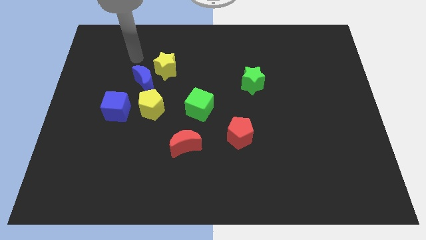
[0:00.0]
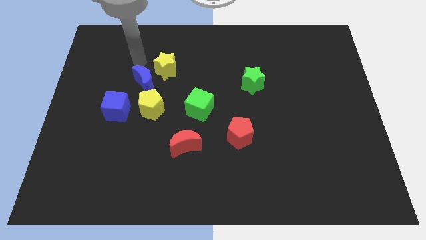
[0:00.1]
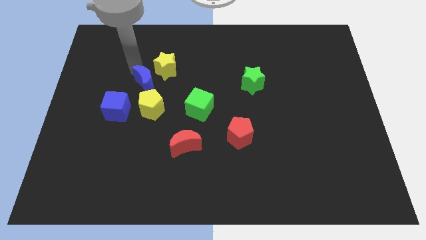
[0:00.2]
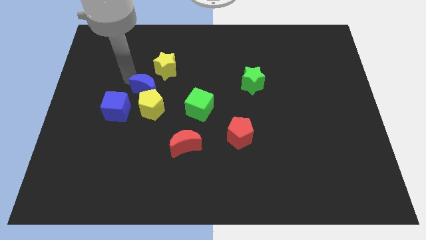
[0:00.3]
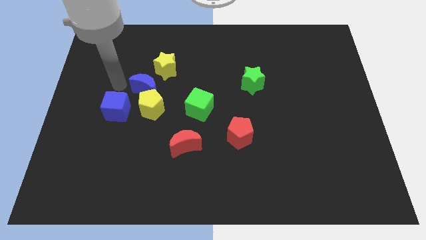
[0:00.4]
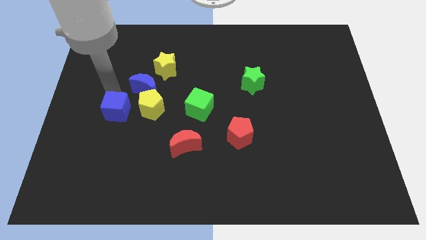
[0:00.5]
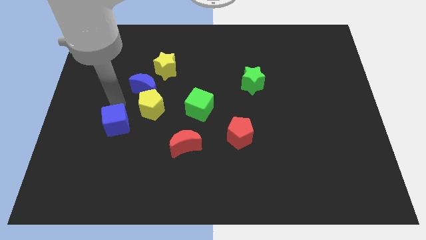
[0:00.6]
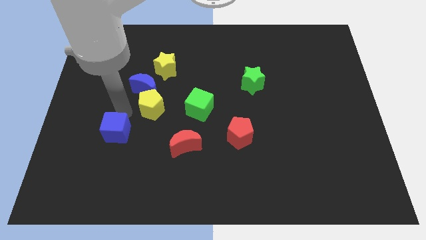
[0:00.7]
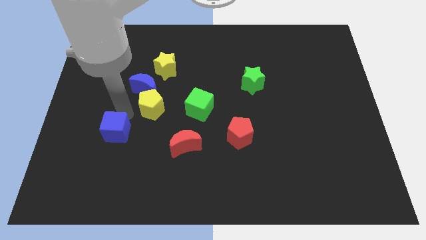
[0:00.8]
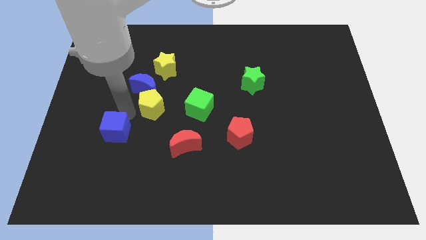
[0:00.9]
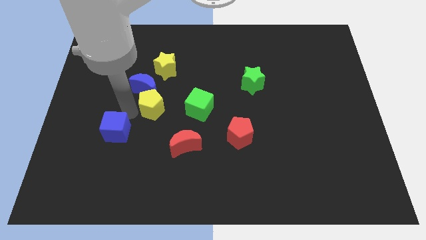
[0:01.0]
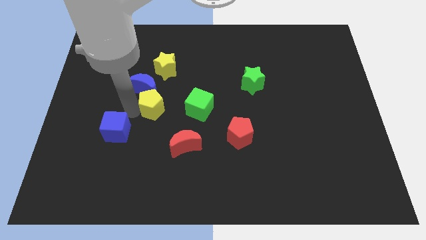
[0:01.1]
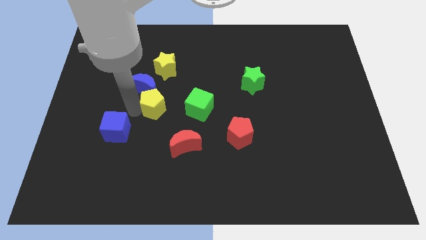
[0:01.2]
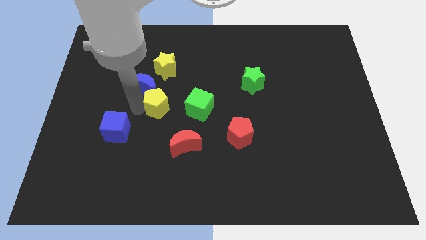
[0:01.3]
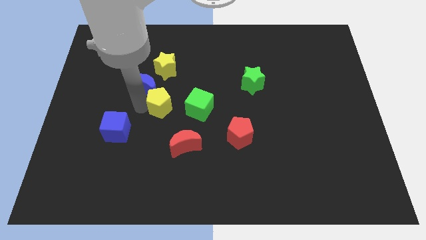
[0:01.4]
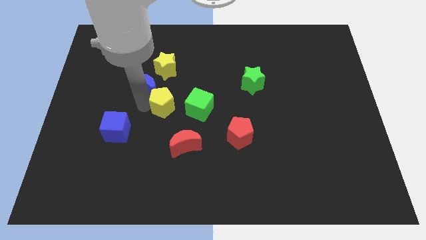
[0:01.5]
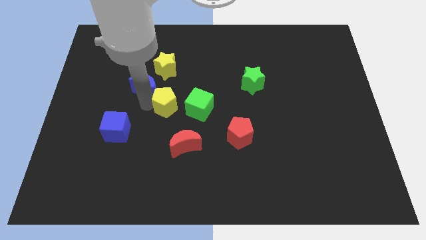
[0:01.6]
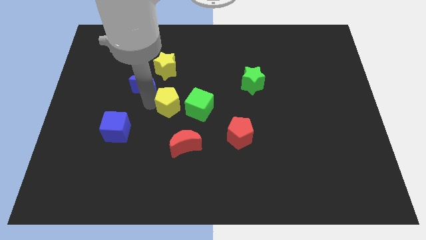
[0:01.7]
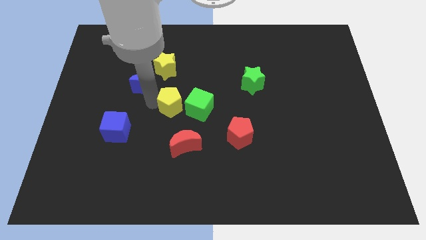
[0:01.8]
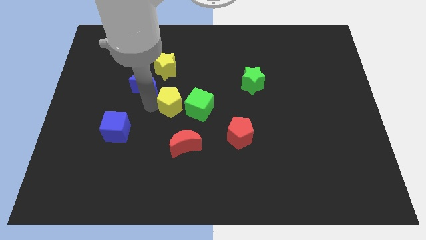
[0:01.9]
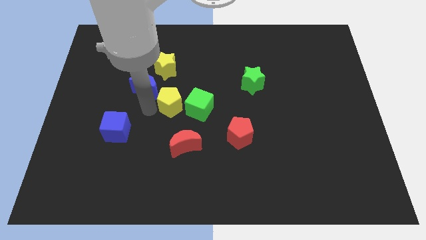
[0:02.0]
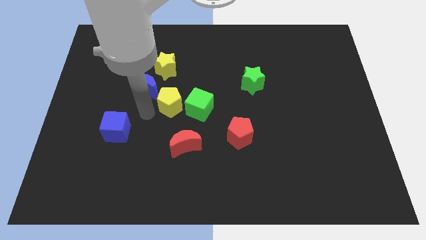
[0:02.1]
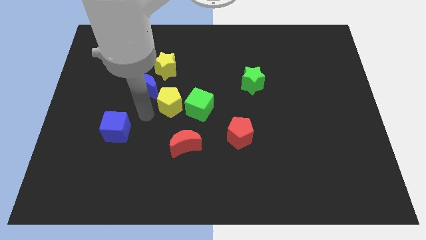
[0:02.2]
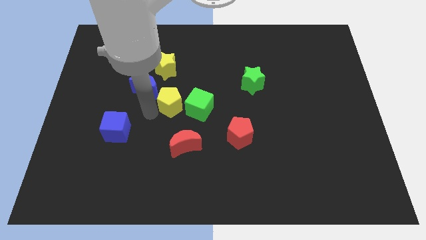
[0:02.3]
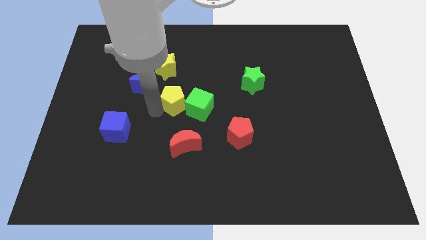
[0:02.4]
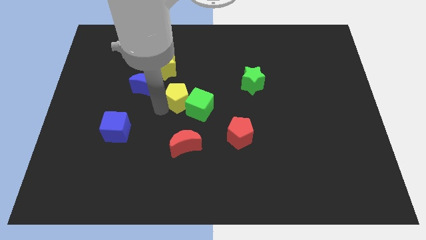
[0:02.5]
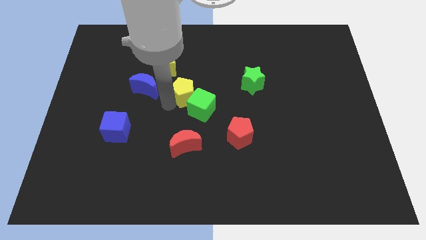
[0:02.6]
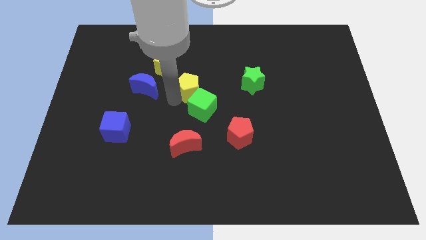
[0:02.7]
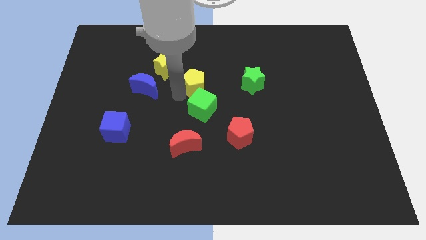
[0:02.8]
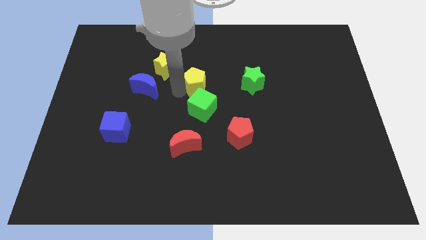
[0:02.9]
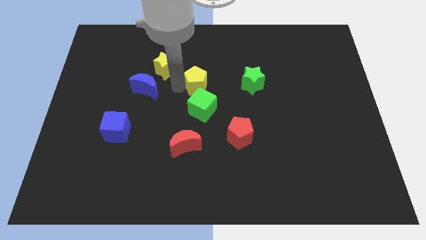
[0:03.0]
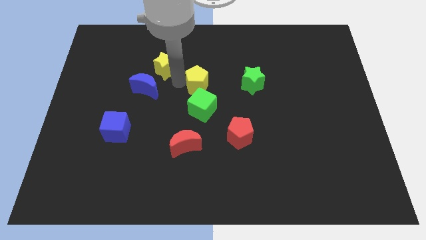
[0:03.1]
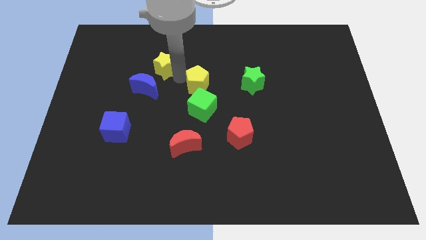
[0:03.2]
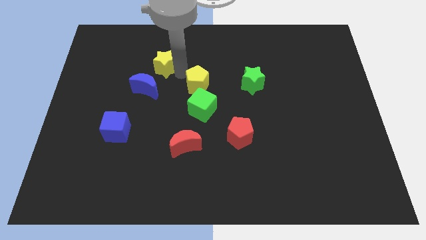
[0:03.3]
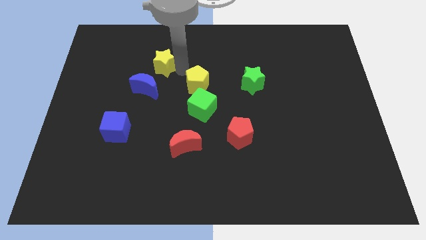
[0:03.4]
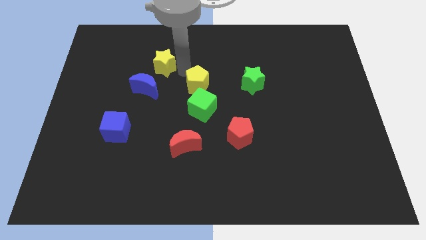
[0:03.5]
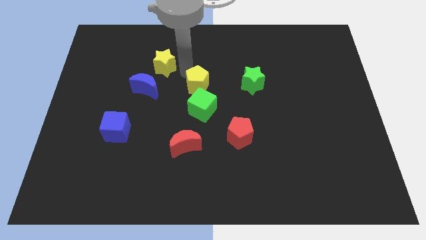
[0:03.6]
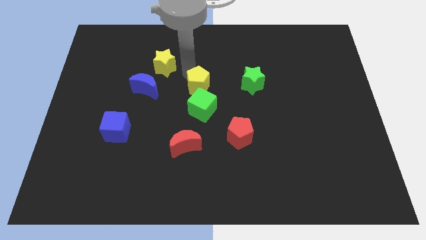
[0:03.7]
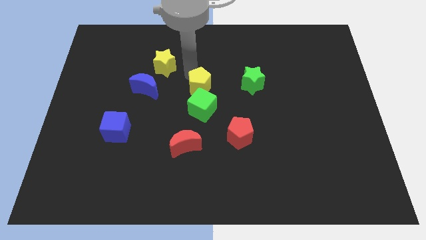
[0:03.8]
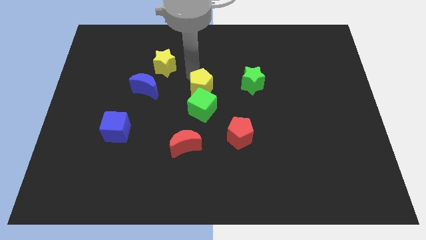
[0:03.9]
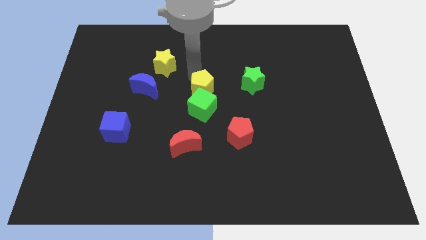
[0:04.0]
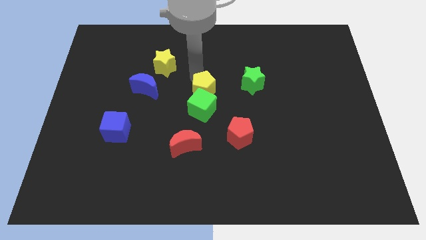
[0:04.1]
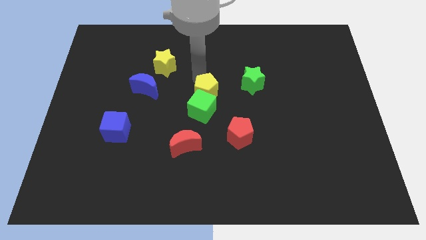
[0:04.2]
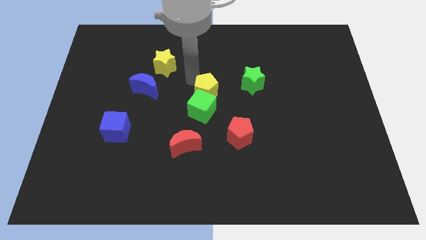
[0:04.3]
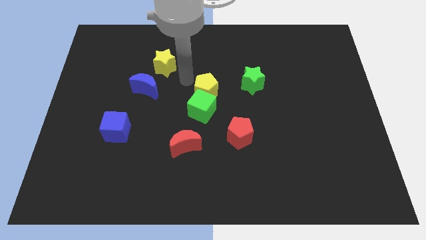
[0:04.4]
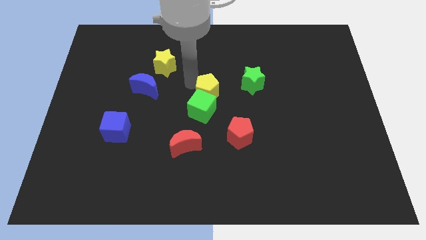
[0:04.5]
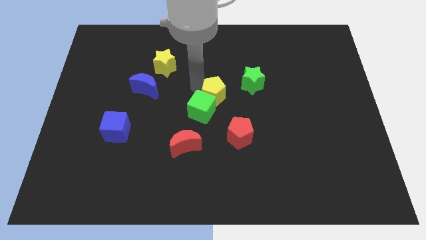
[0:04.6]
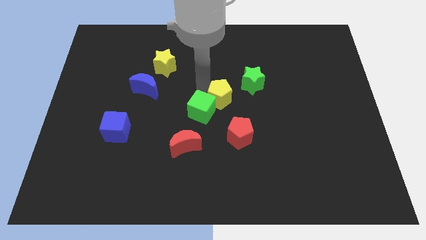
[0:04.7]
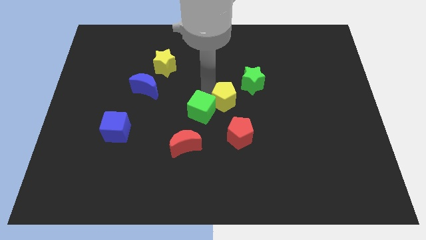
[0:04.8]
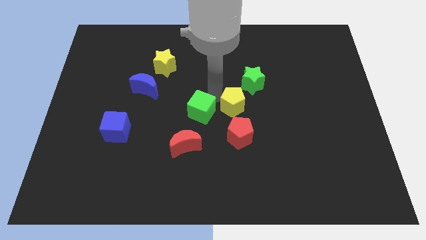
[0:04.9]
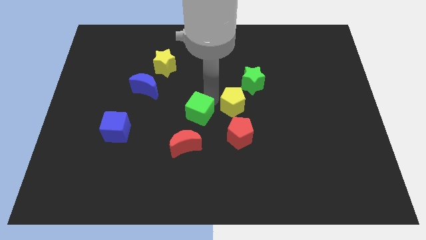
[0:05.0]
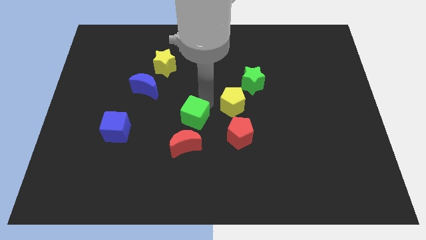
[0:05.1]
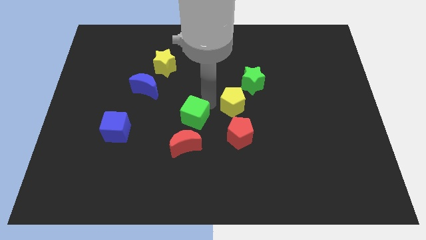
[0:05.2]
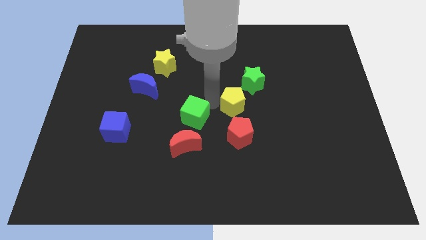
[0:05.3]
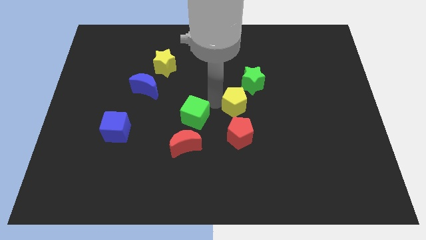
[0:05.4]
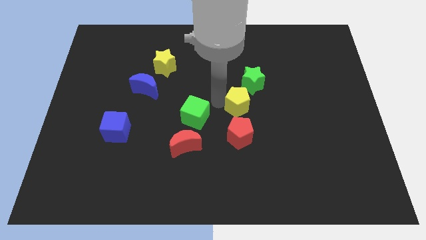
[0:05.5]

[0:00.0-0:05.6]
move the yellow pentagon right

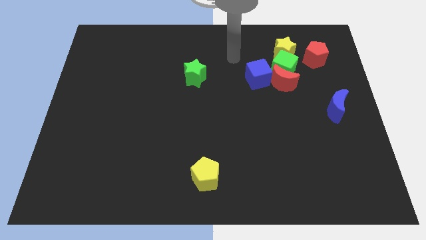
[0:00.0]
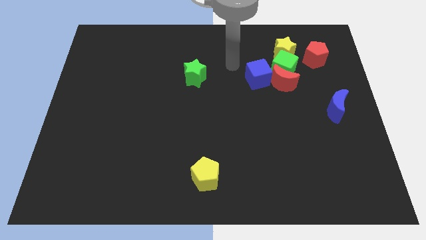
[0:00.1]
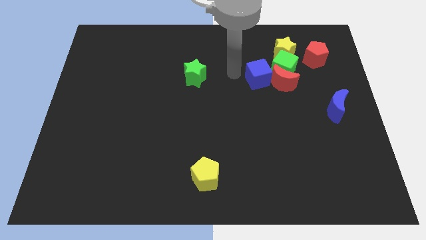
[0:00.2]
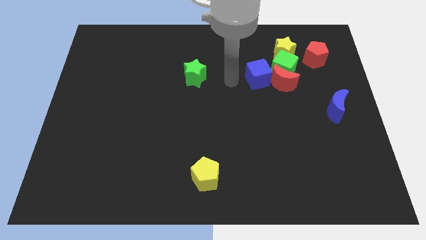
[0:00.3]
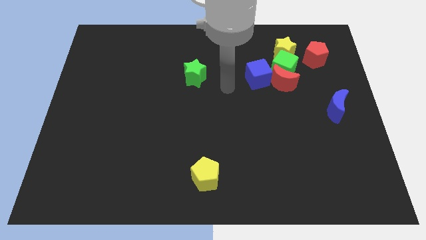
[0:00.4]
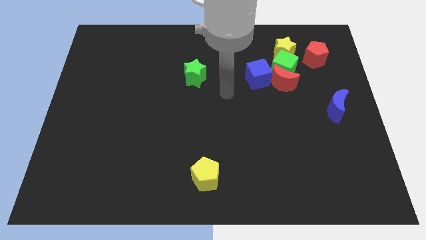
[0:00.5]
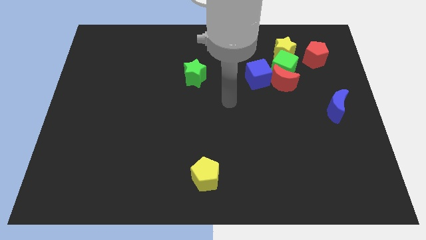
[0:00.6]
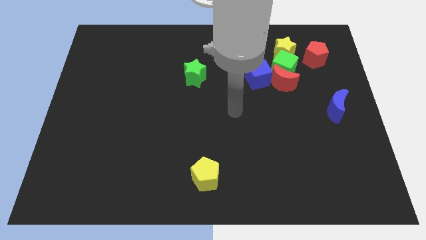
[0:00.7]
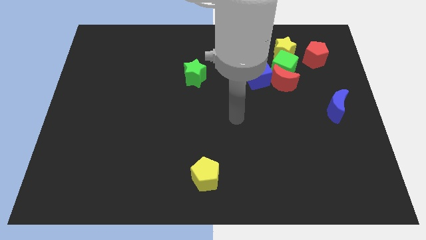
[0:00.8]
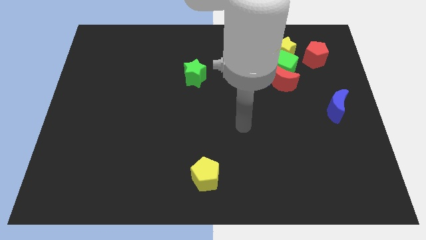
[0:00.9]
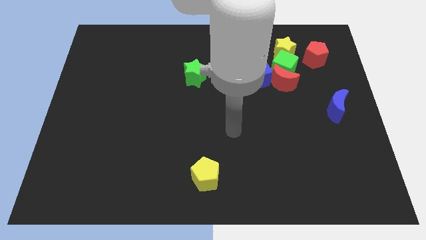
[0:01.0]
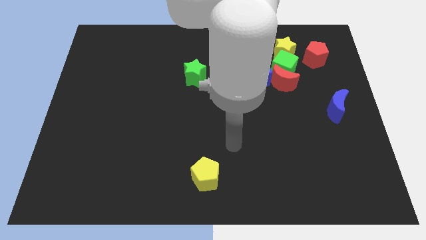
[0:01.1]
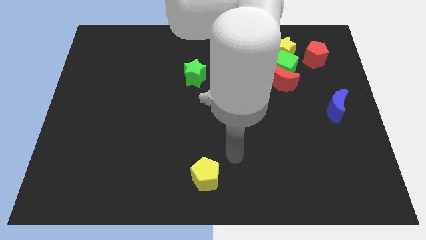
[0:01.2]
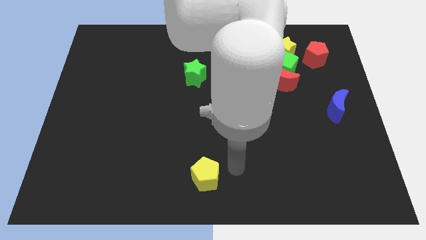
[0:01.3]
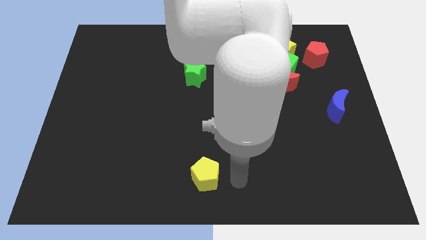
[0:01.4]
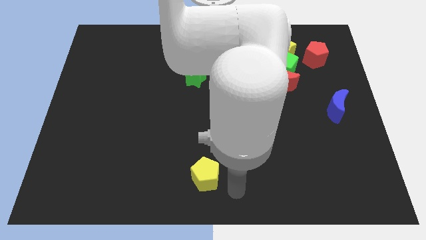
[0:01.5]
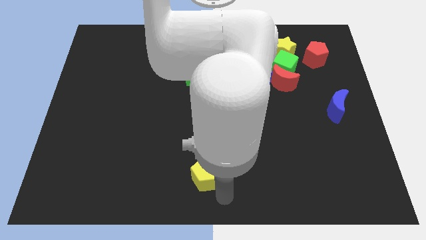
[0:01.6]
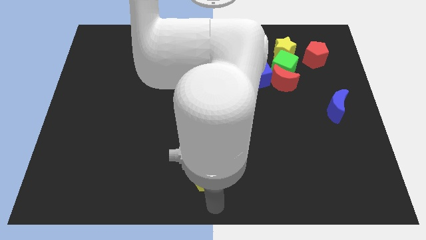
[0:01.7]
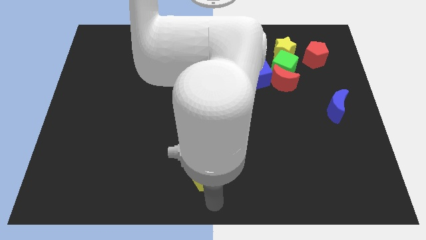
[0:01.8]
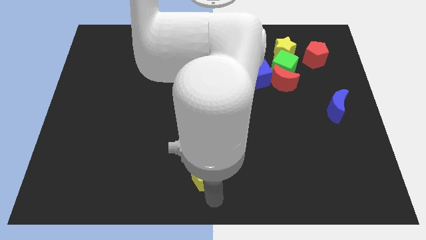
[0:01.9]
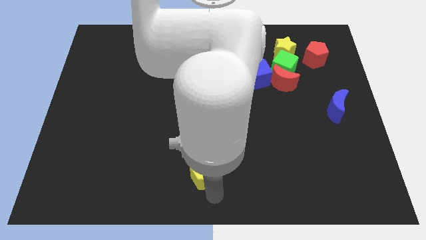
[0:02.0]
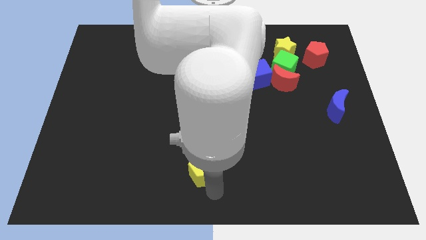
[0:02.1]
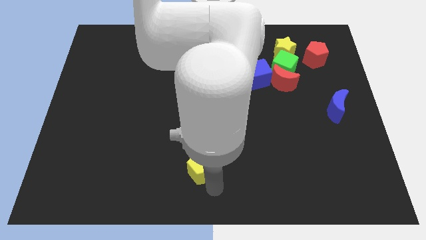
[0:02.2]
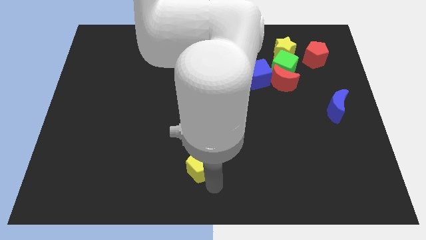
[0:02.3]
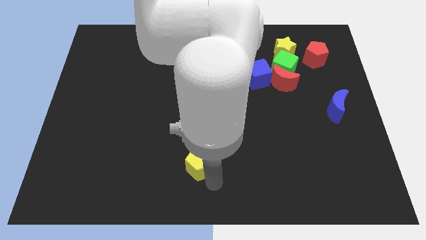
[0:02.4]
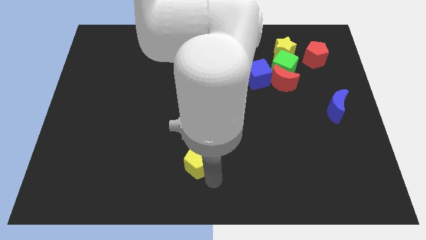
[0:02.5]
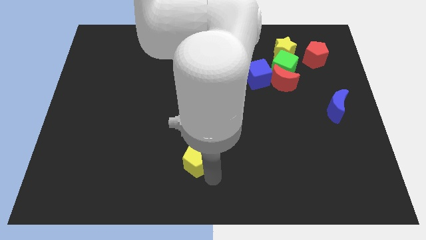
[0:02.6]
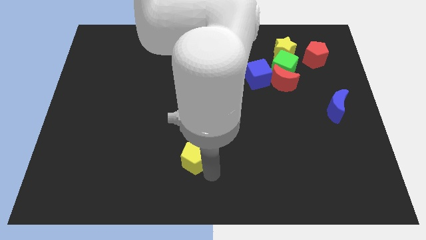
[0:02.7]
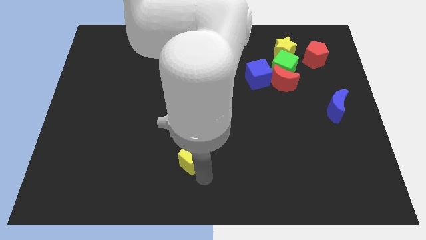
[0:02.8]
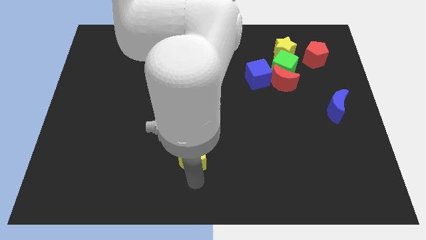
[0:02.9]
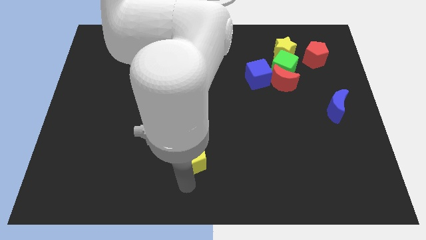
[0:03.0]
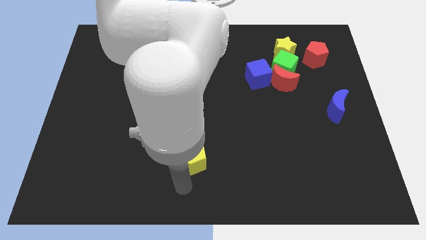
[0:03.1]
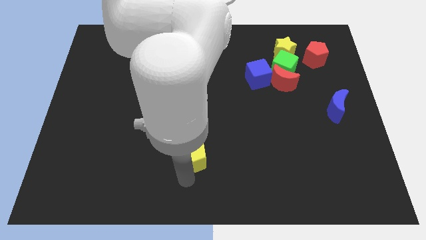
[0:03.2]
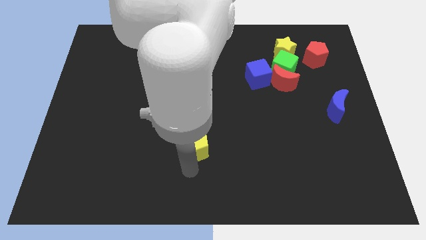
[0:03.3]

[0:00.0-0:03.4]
slightly push the yellow pentagon upwards
